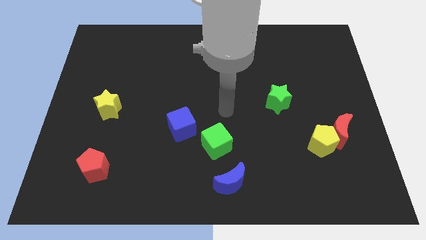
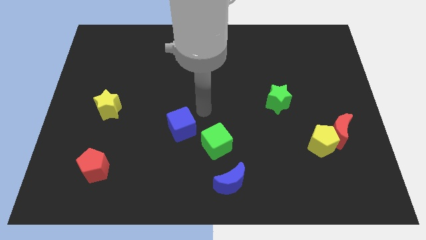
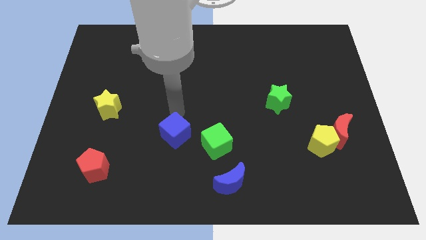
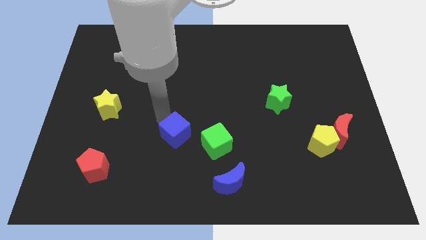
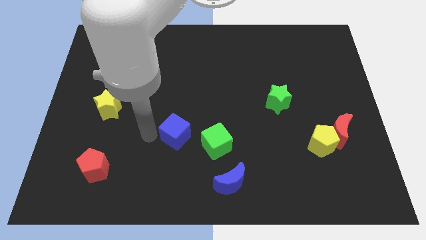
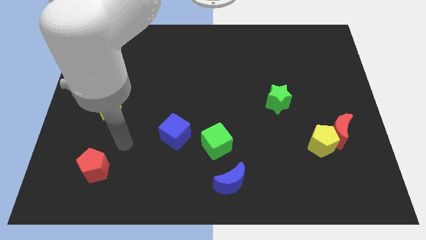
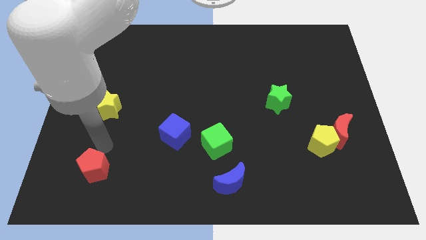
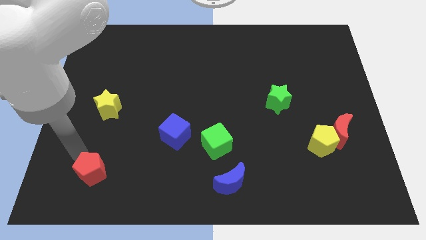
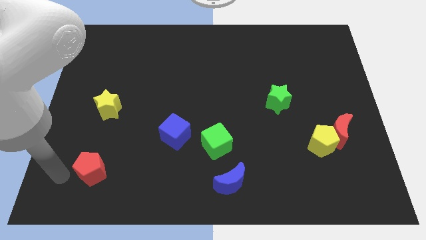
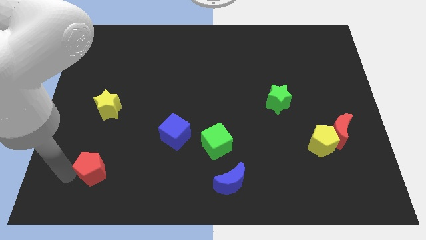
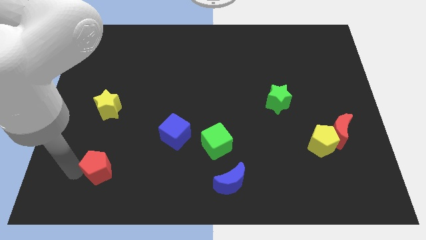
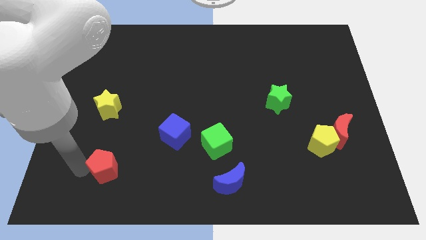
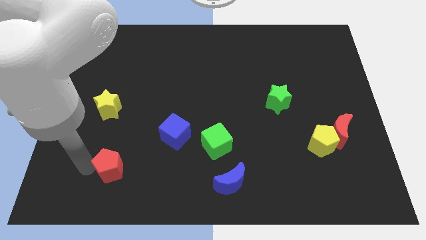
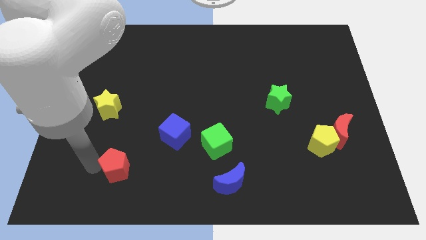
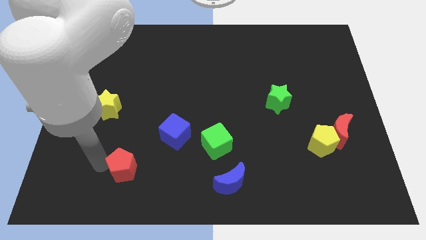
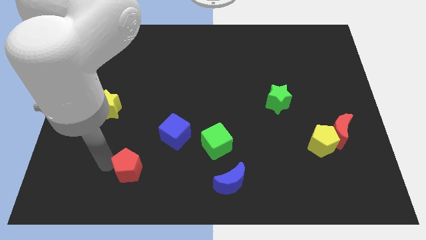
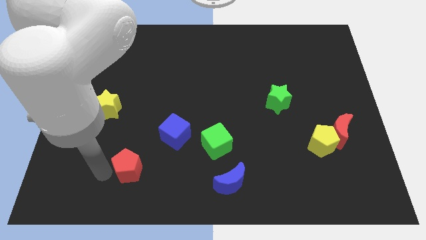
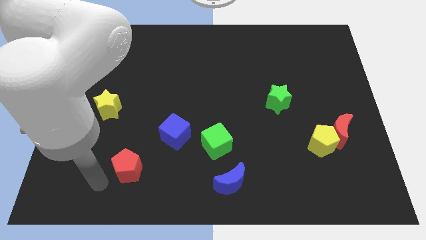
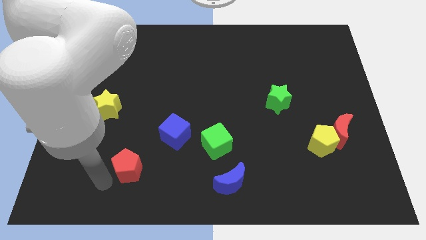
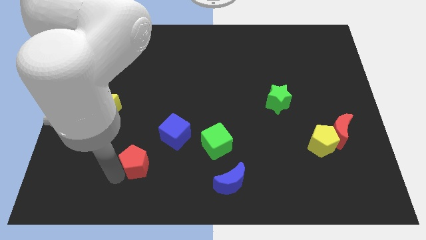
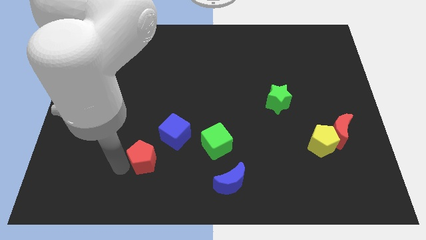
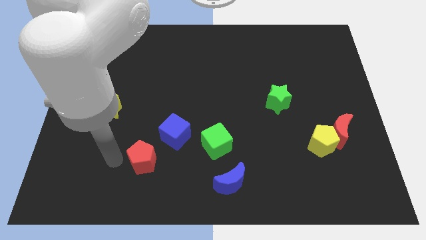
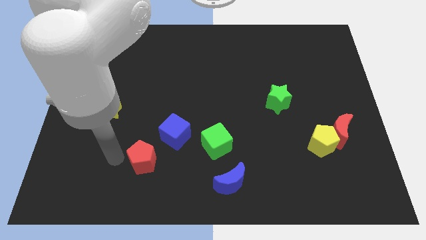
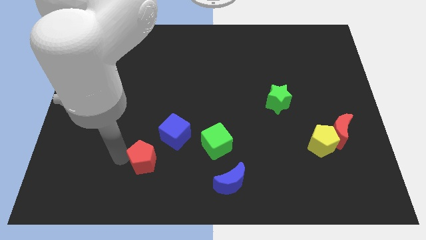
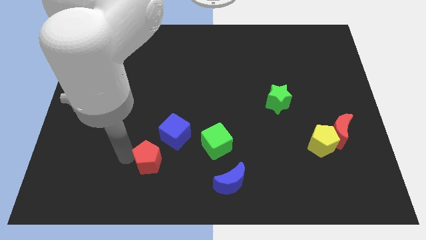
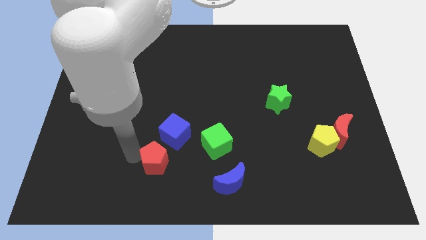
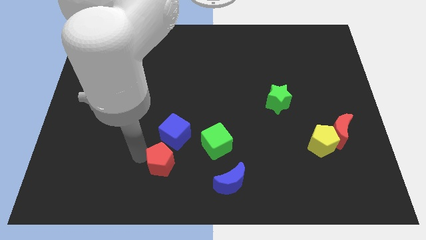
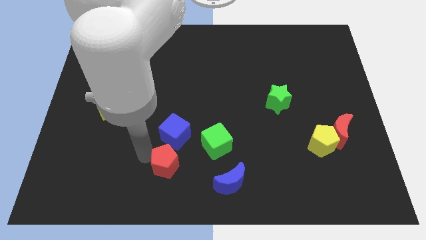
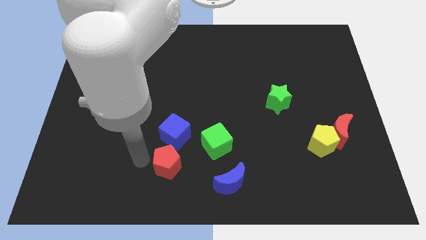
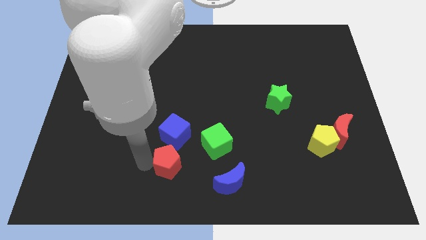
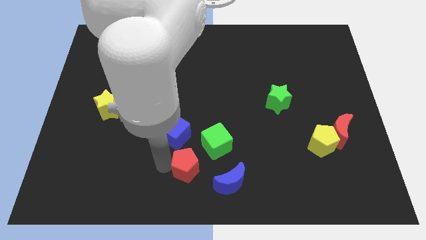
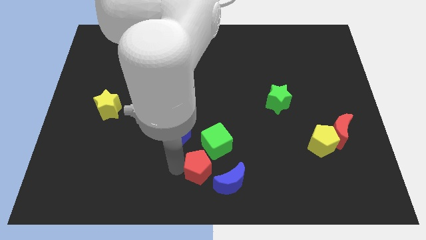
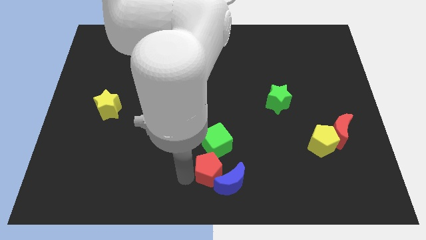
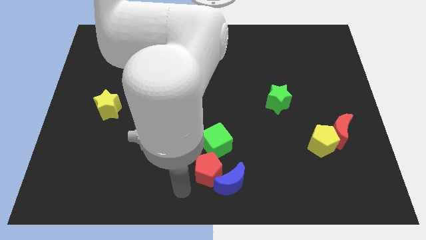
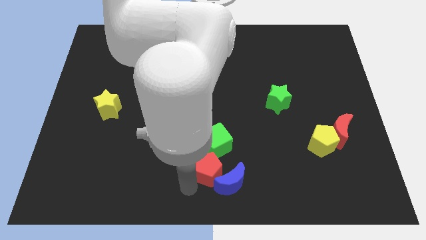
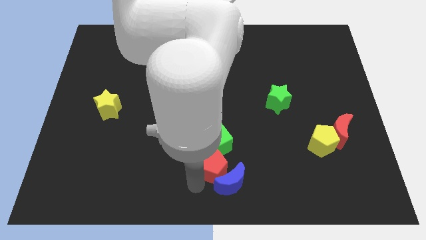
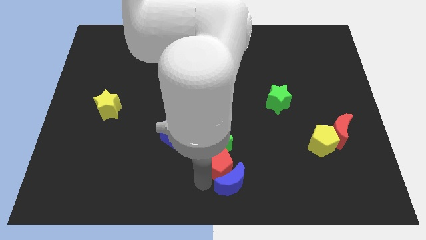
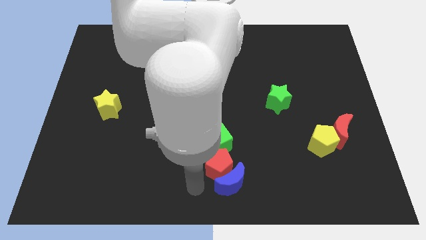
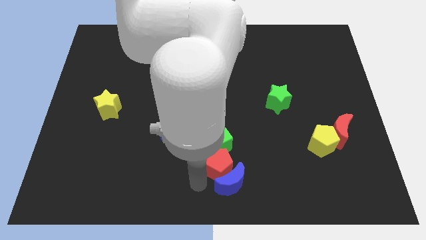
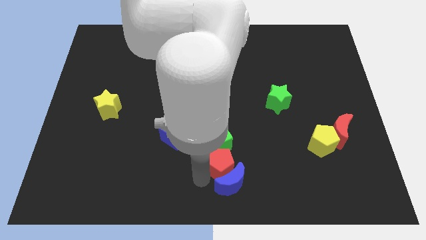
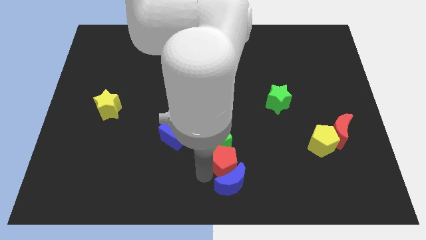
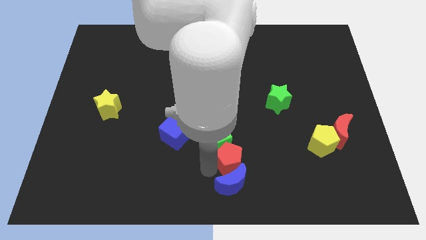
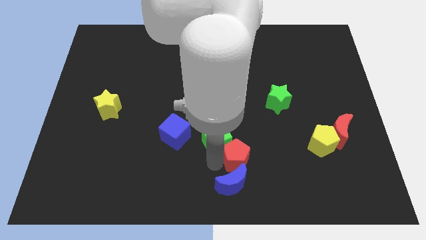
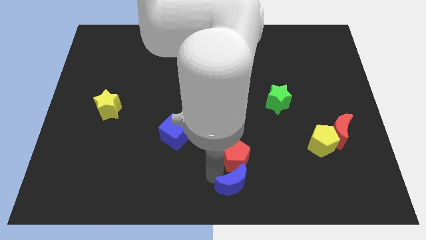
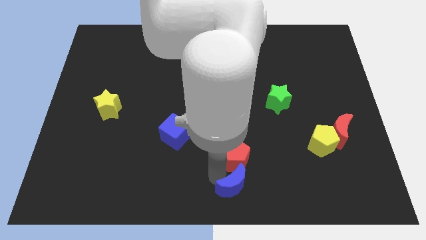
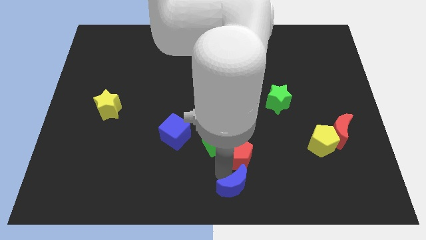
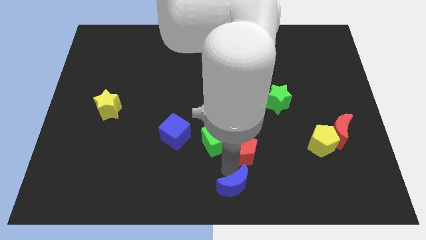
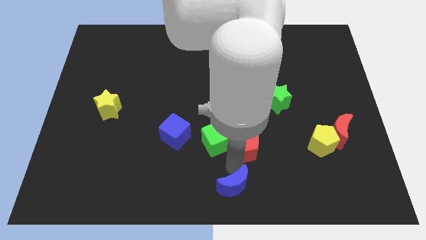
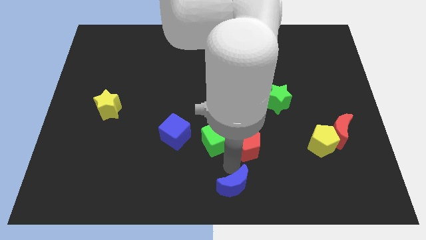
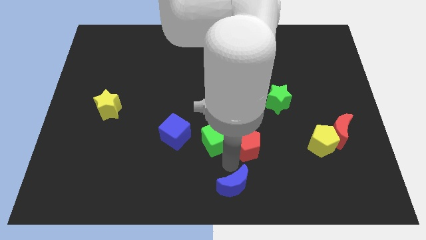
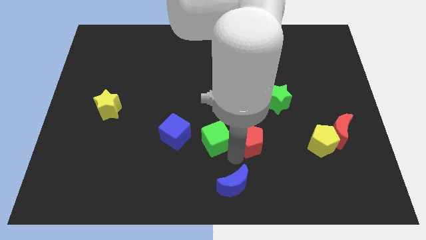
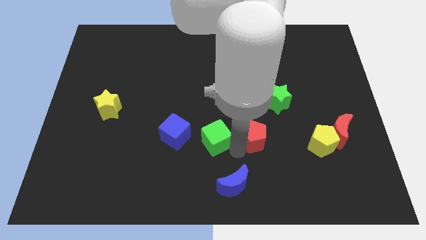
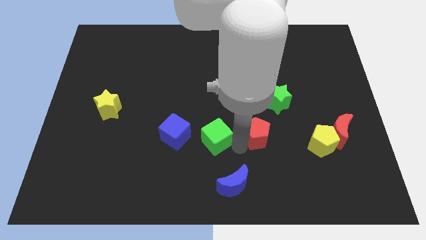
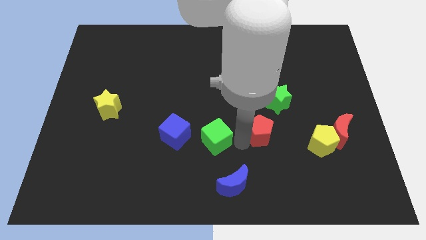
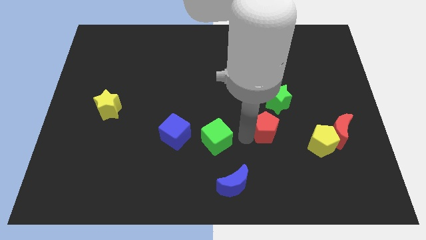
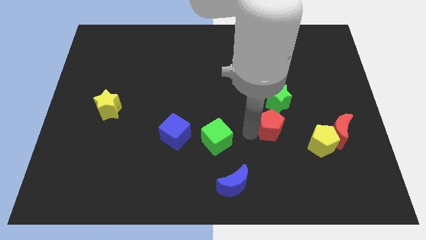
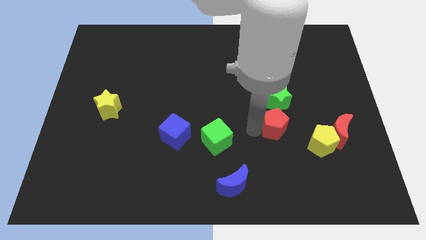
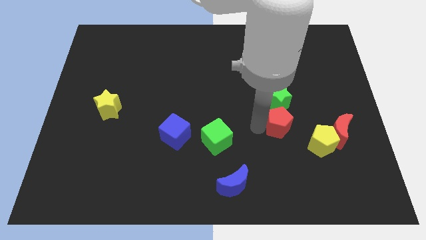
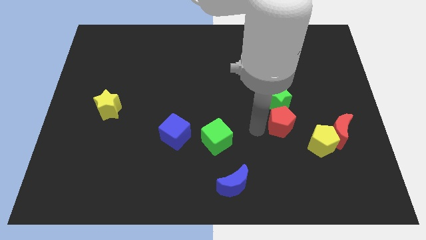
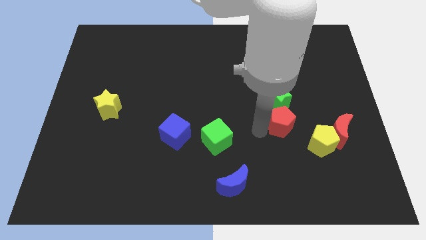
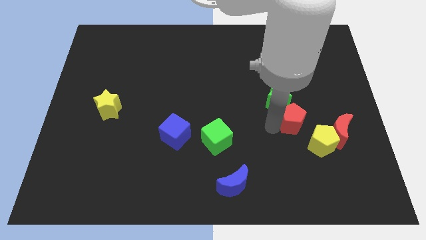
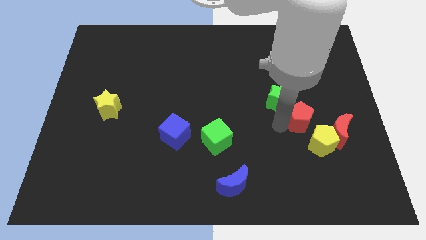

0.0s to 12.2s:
push the red pentagon to the top side of the yellow pentagon

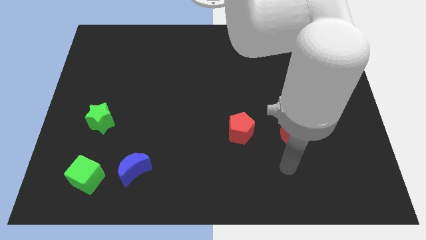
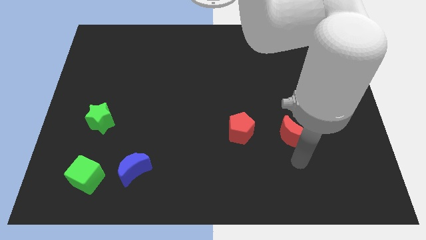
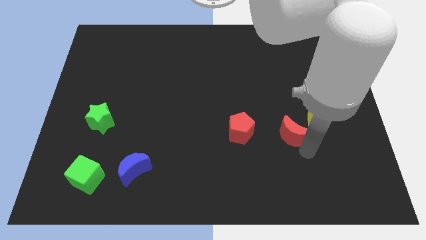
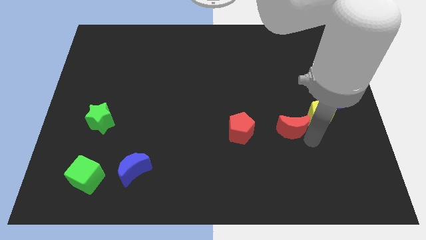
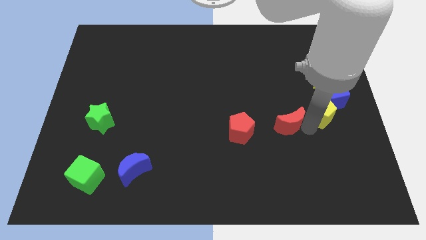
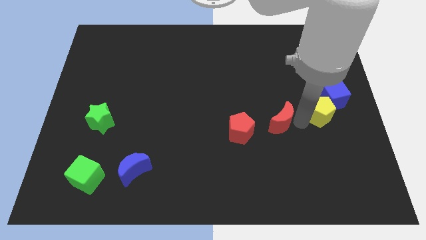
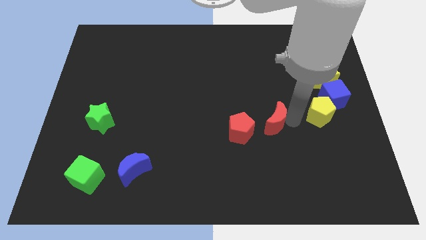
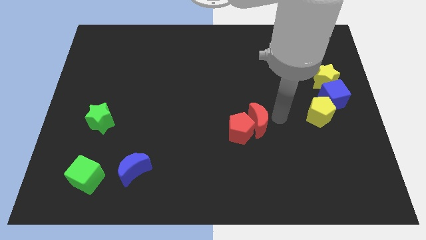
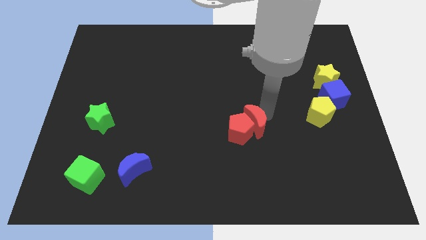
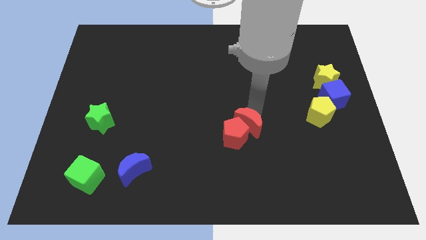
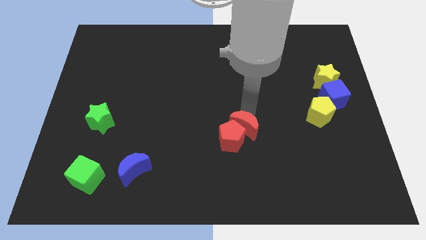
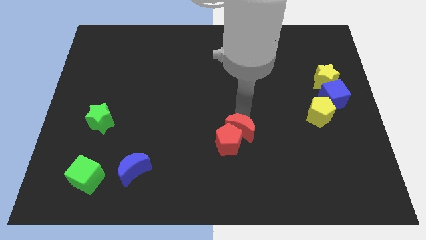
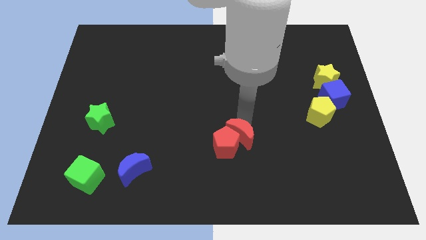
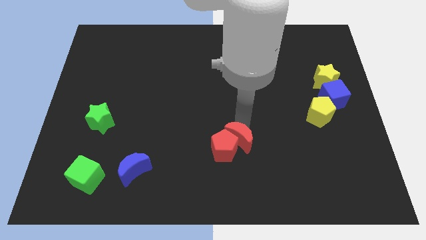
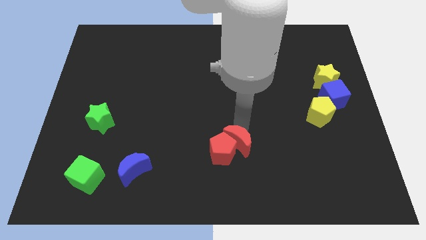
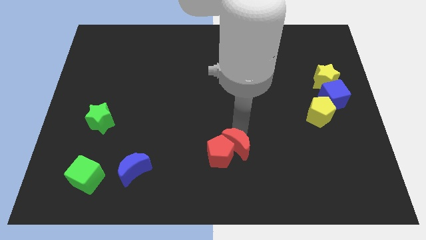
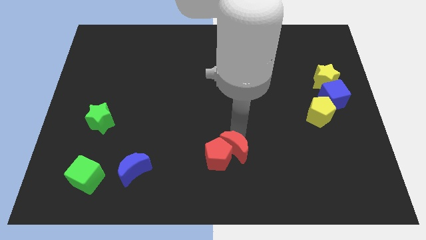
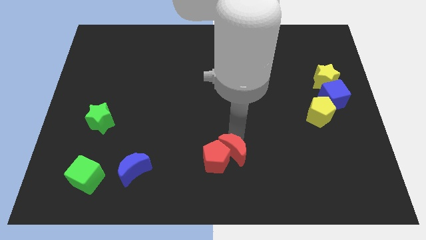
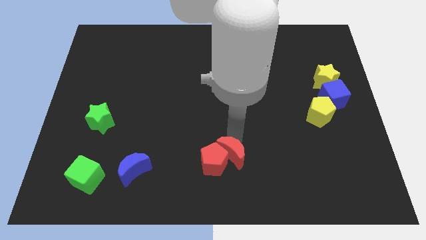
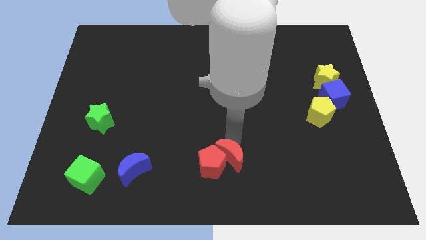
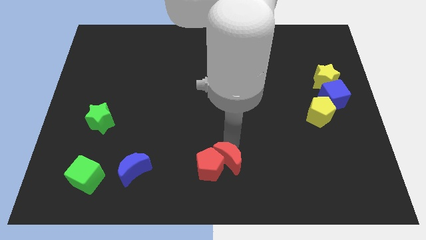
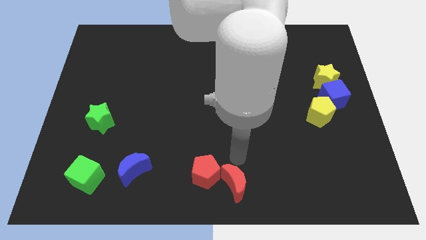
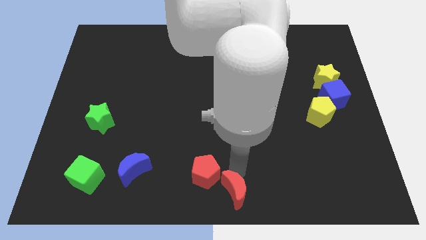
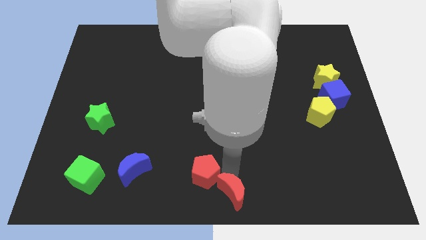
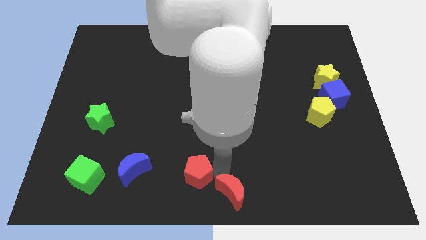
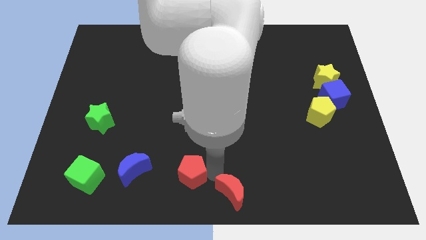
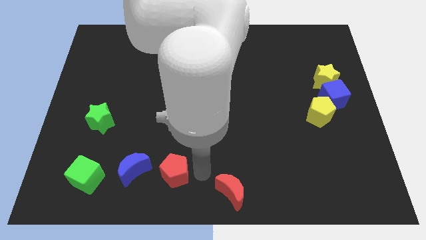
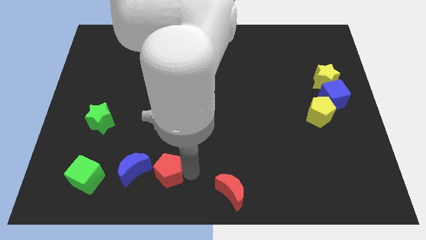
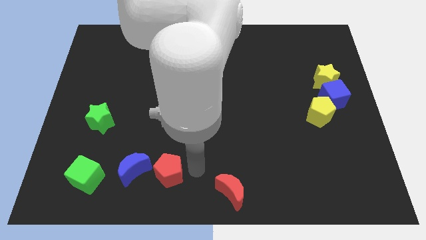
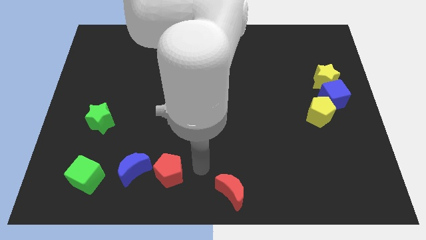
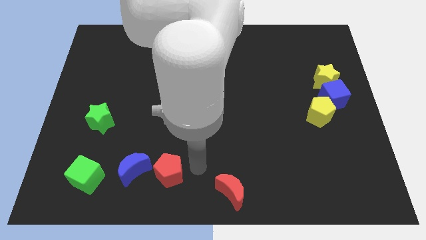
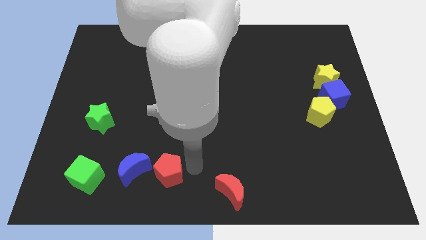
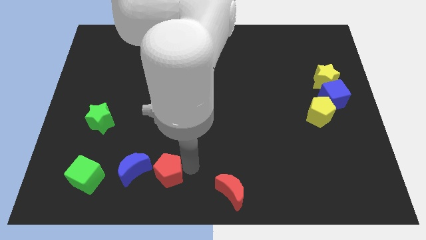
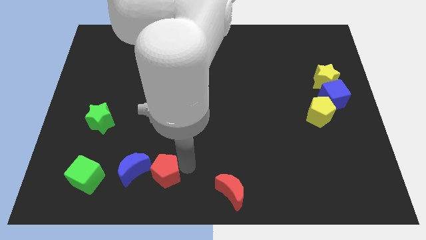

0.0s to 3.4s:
push the red pentagon right of the green cube
